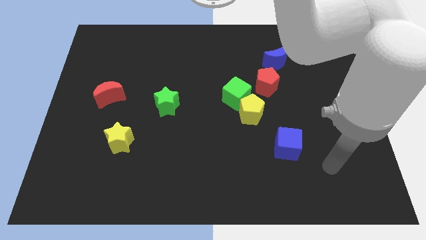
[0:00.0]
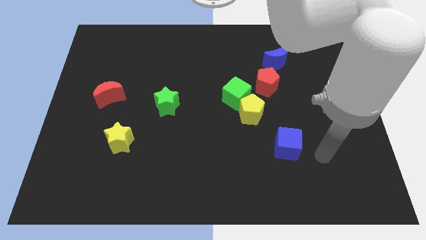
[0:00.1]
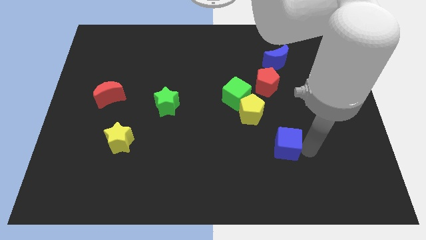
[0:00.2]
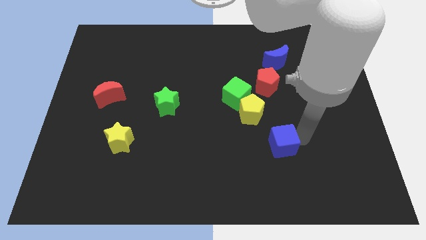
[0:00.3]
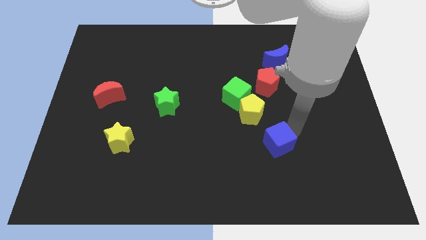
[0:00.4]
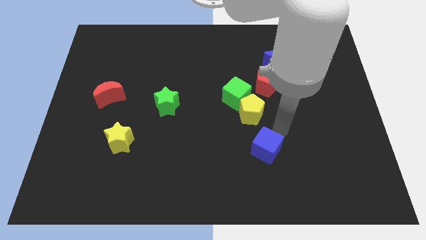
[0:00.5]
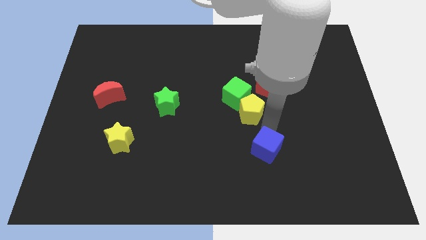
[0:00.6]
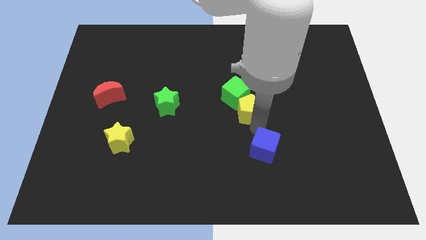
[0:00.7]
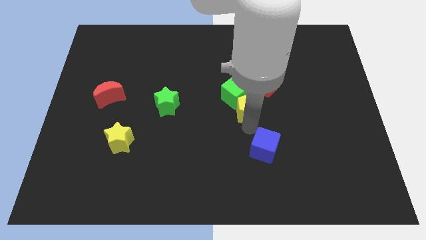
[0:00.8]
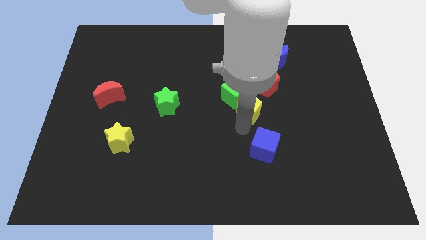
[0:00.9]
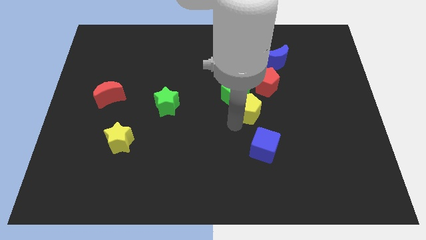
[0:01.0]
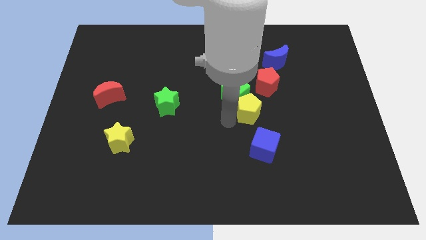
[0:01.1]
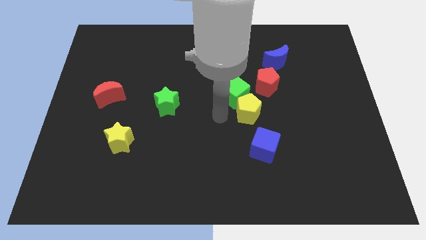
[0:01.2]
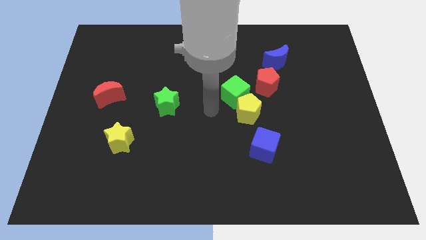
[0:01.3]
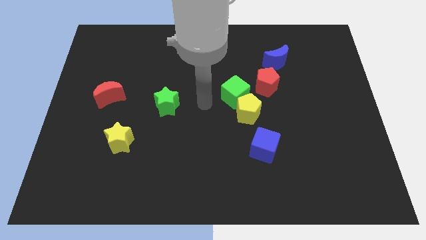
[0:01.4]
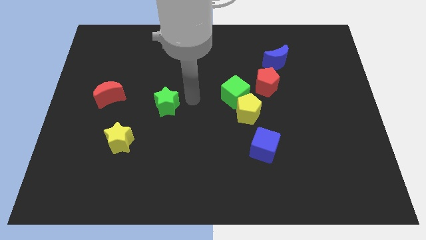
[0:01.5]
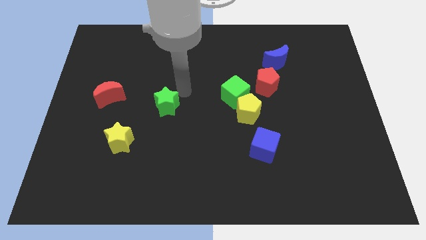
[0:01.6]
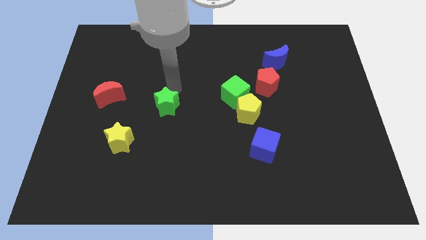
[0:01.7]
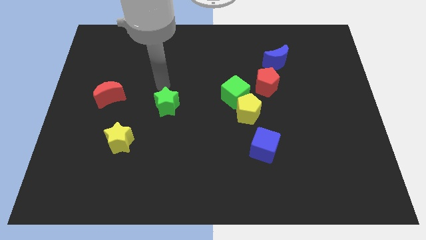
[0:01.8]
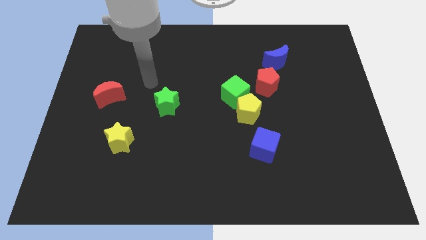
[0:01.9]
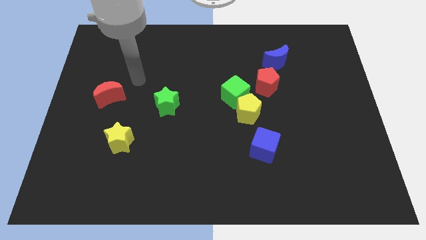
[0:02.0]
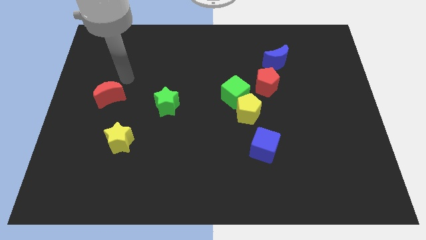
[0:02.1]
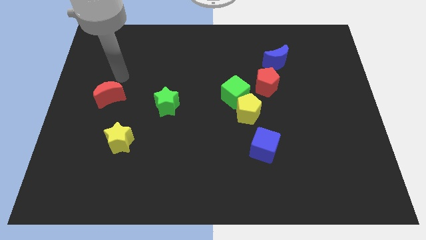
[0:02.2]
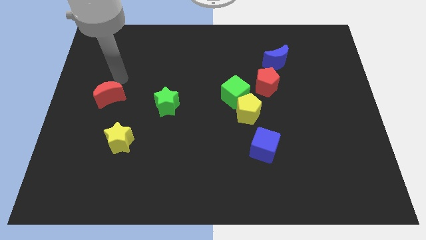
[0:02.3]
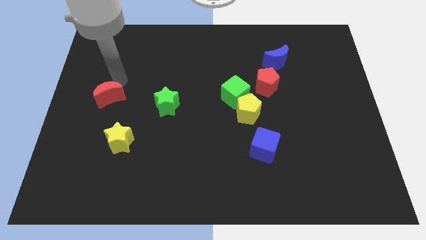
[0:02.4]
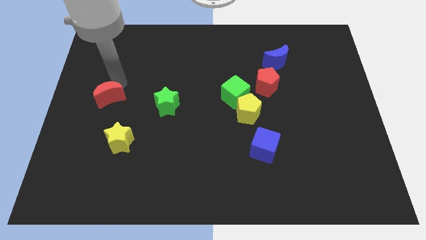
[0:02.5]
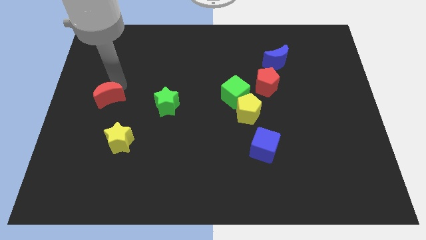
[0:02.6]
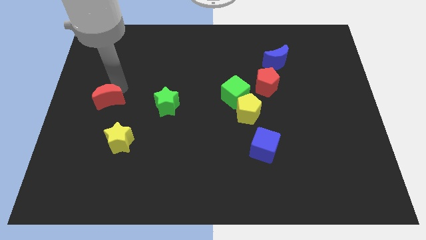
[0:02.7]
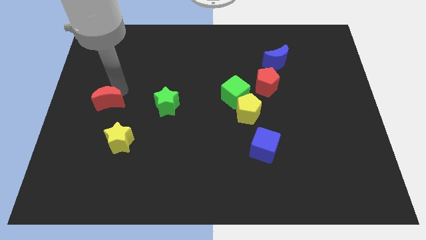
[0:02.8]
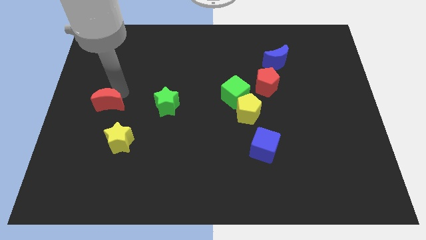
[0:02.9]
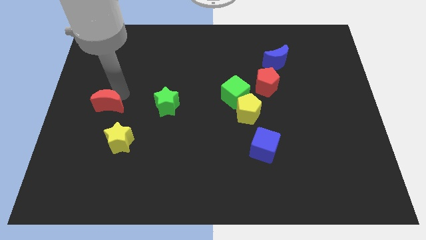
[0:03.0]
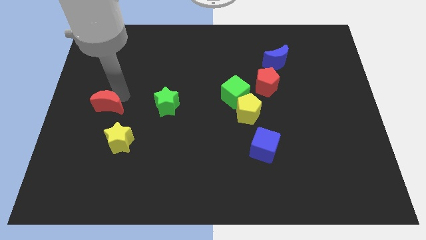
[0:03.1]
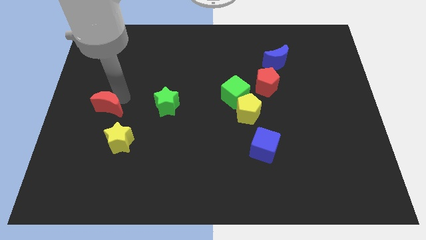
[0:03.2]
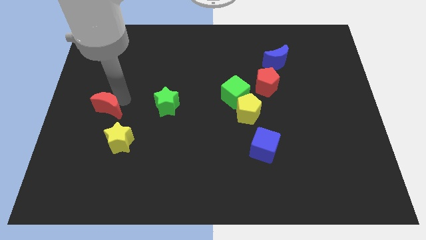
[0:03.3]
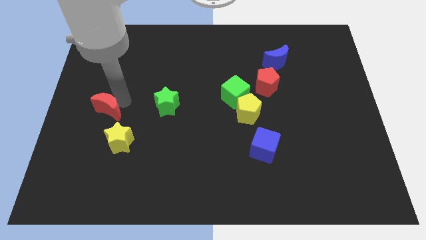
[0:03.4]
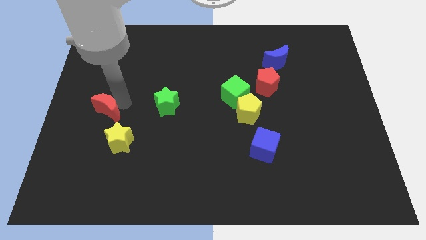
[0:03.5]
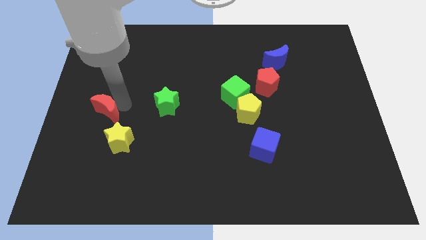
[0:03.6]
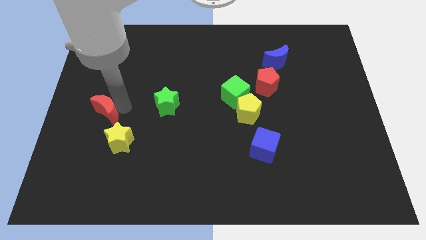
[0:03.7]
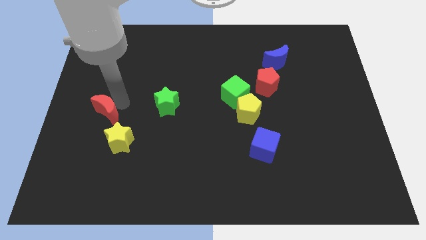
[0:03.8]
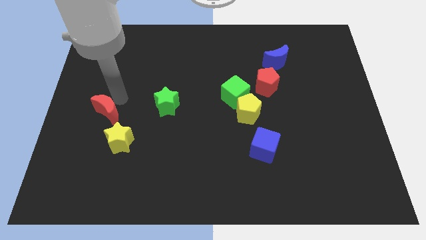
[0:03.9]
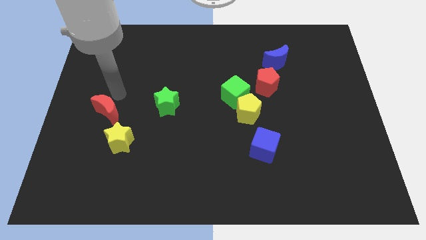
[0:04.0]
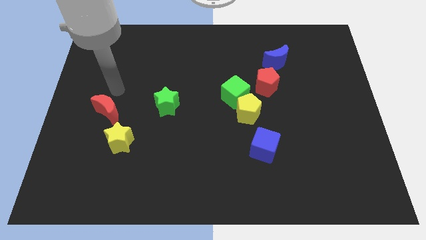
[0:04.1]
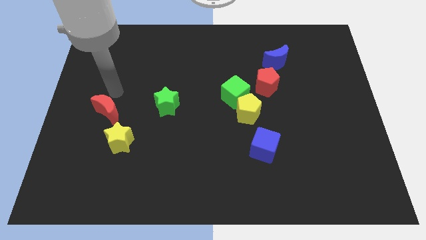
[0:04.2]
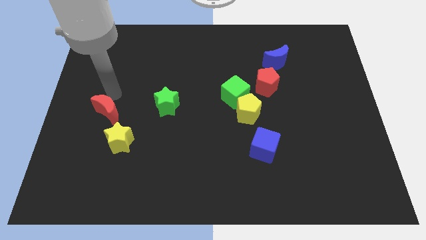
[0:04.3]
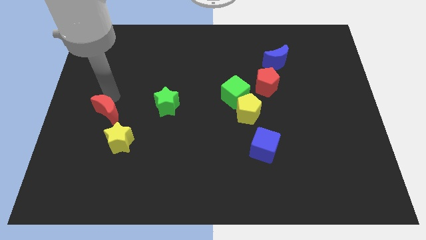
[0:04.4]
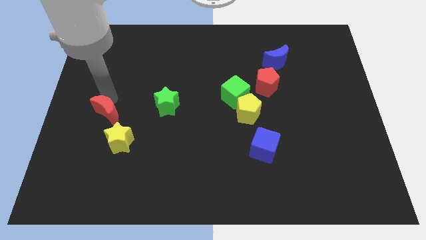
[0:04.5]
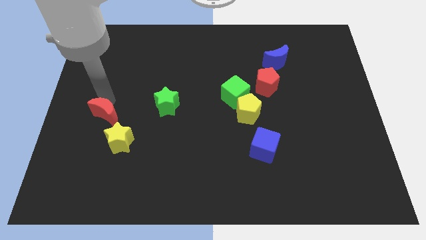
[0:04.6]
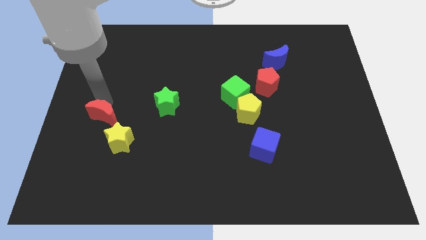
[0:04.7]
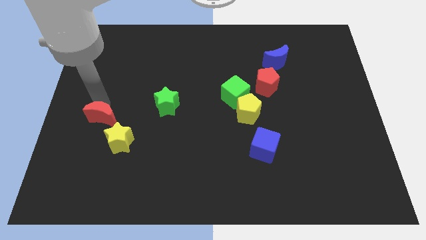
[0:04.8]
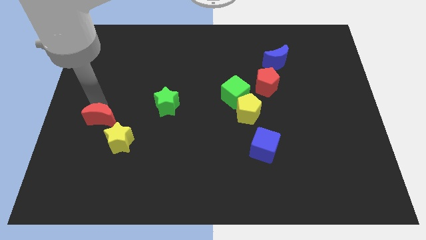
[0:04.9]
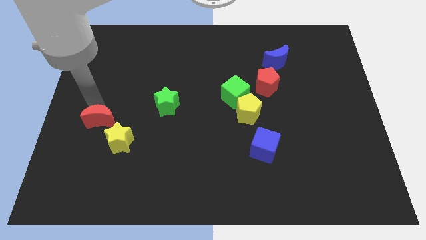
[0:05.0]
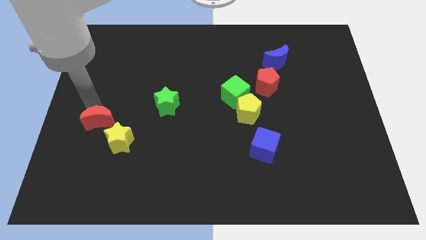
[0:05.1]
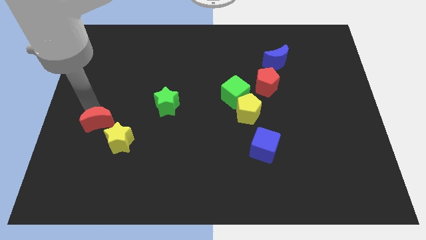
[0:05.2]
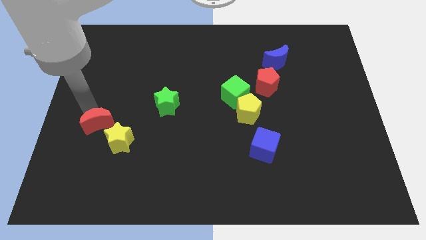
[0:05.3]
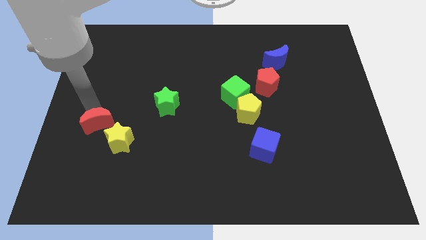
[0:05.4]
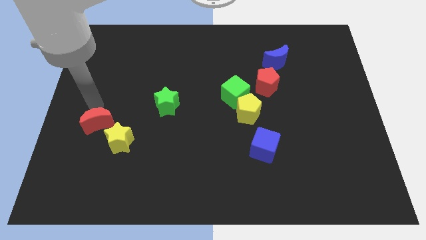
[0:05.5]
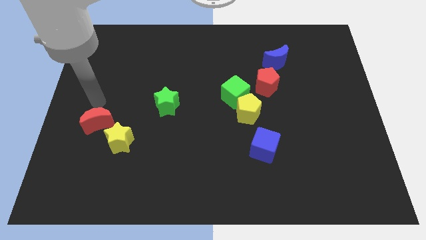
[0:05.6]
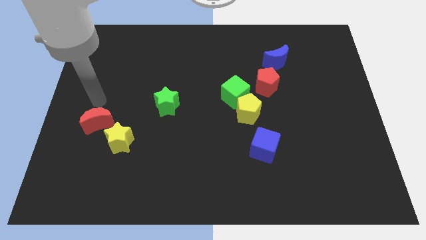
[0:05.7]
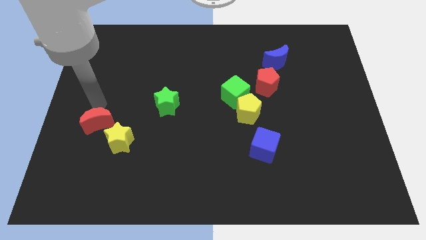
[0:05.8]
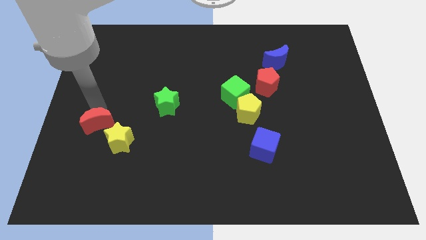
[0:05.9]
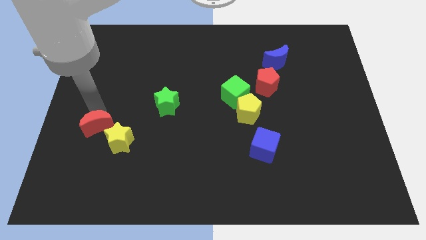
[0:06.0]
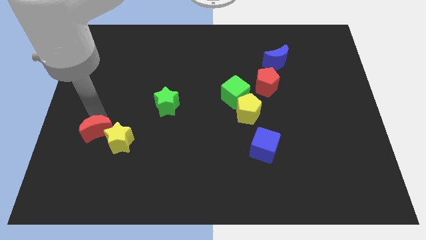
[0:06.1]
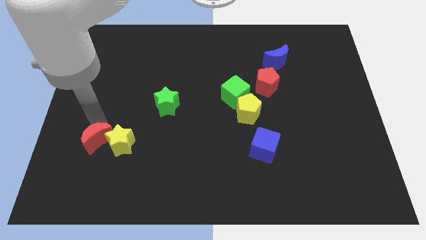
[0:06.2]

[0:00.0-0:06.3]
move the red moon to the bottom left side of the yellow star

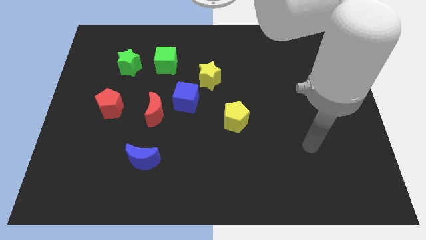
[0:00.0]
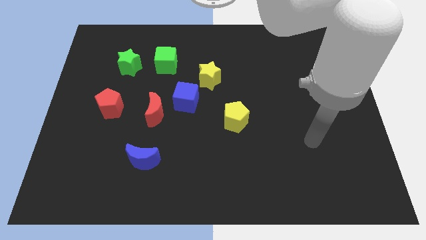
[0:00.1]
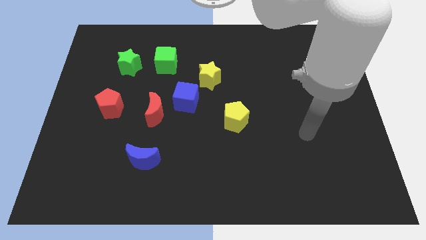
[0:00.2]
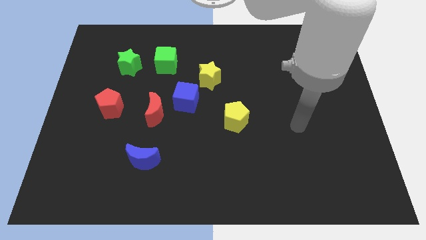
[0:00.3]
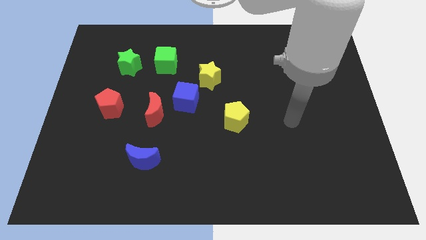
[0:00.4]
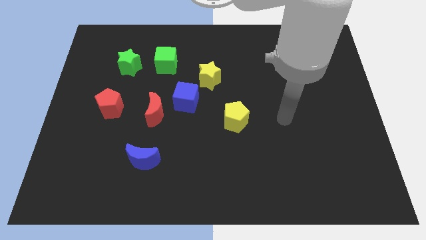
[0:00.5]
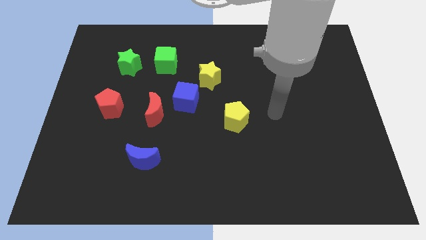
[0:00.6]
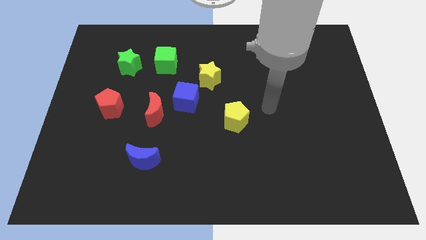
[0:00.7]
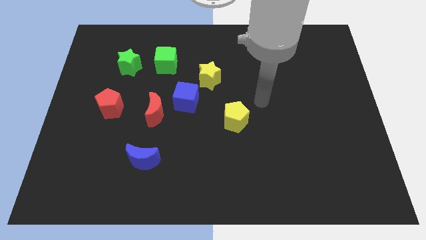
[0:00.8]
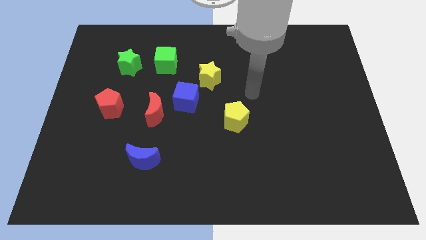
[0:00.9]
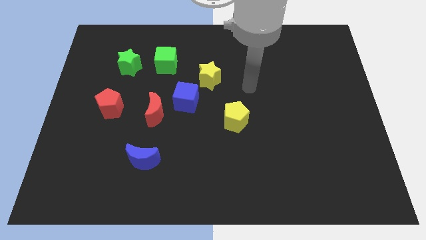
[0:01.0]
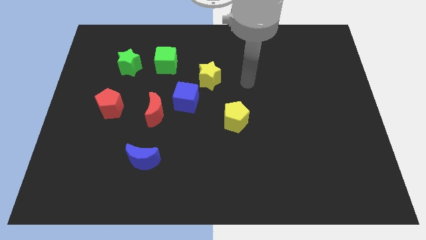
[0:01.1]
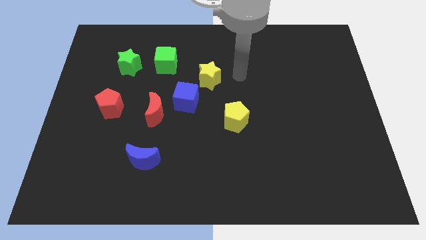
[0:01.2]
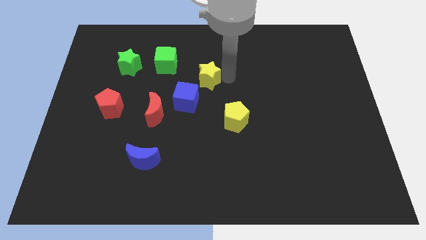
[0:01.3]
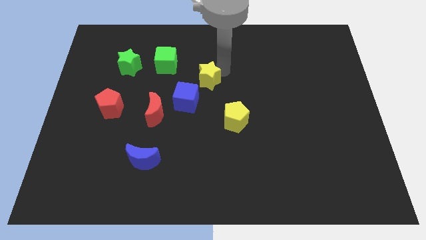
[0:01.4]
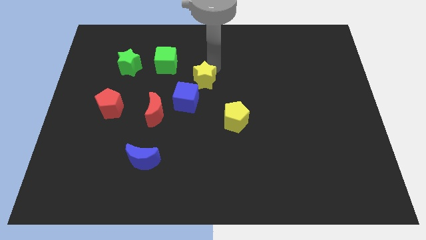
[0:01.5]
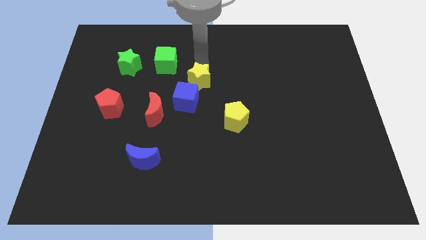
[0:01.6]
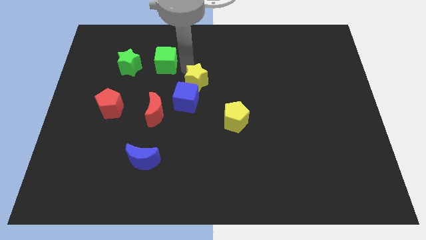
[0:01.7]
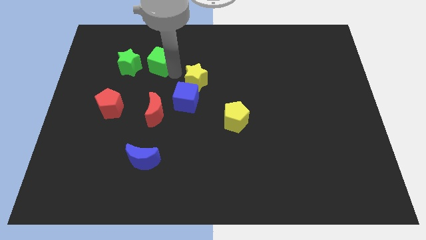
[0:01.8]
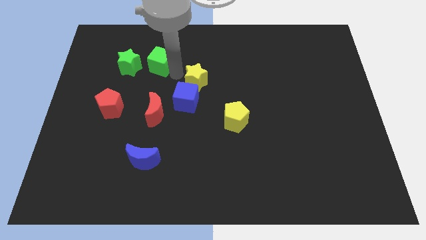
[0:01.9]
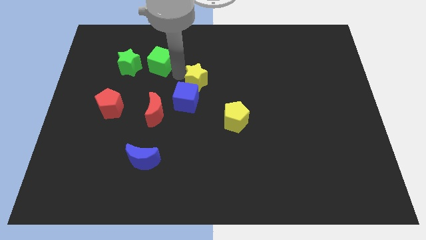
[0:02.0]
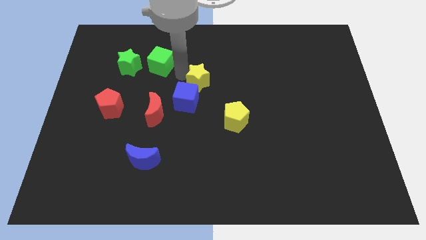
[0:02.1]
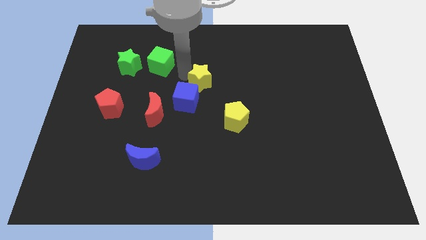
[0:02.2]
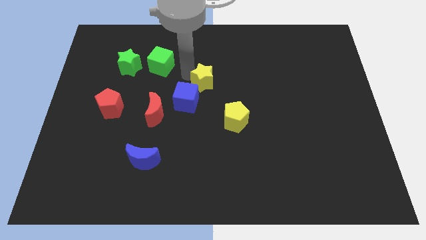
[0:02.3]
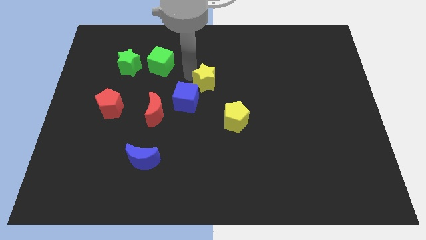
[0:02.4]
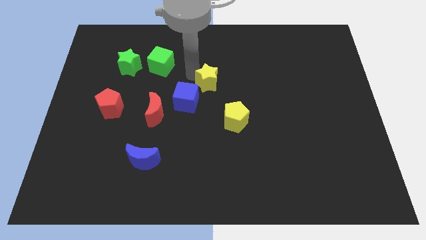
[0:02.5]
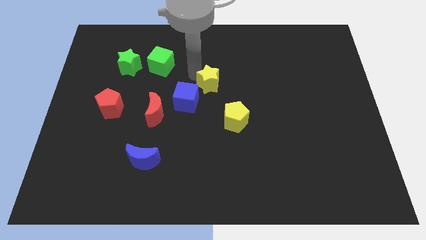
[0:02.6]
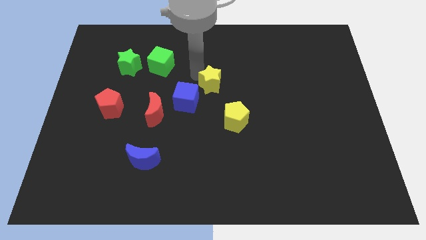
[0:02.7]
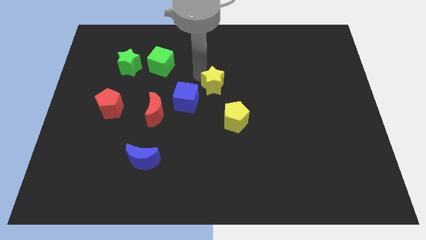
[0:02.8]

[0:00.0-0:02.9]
slide the yellow star to the right of the blue cube
